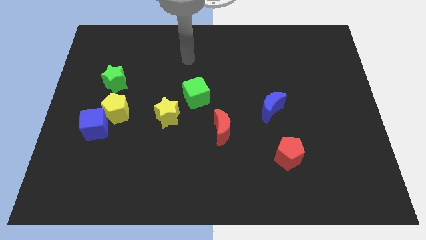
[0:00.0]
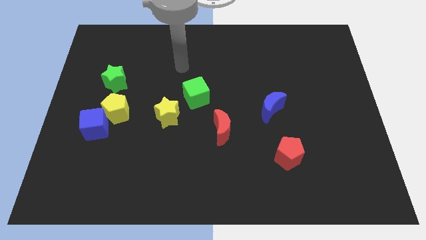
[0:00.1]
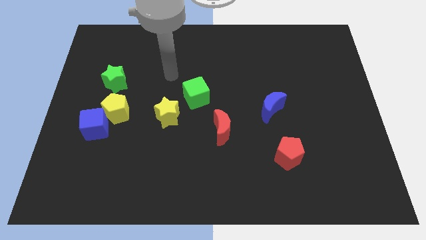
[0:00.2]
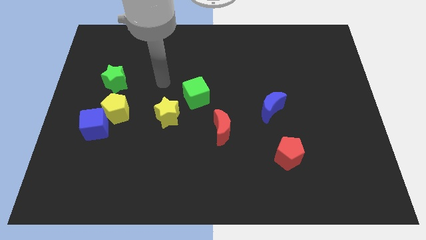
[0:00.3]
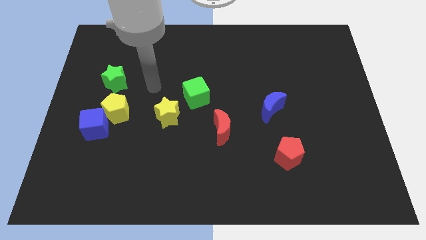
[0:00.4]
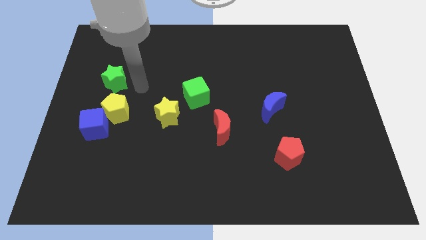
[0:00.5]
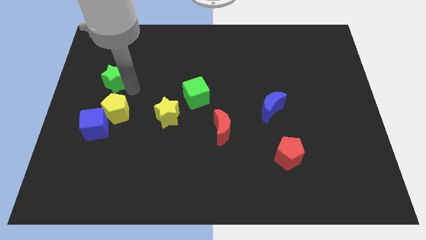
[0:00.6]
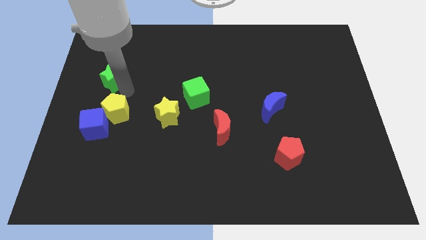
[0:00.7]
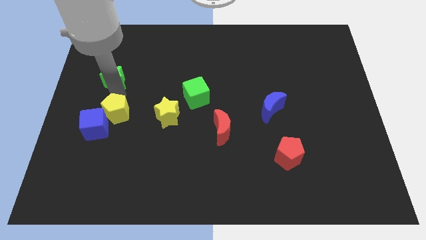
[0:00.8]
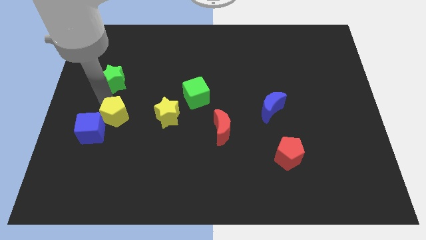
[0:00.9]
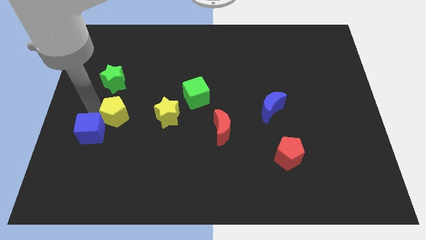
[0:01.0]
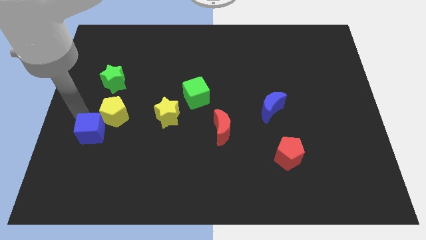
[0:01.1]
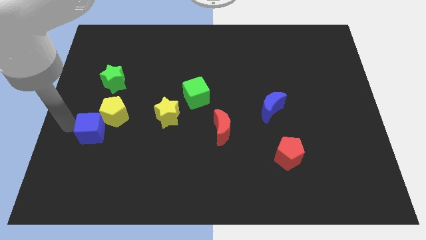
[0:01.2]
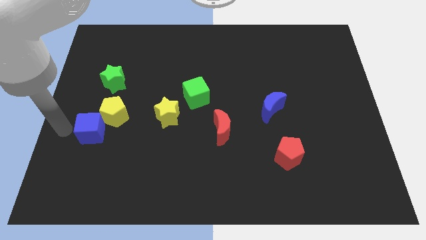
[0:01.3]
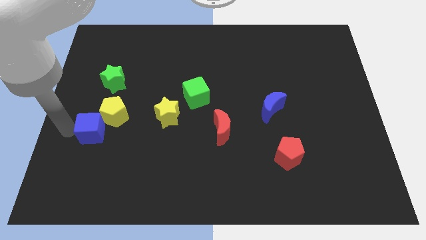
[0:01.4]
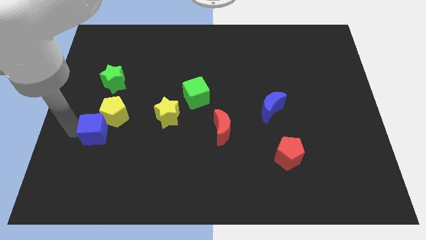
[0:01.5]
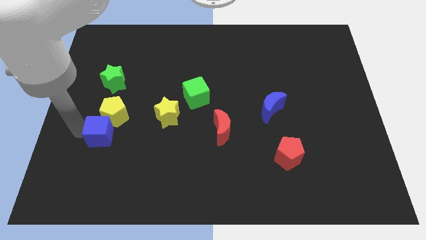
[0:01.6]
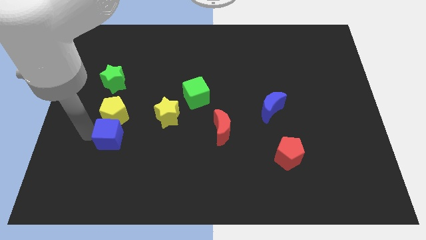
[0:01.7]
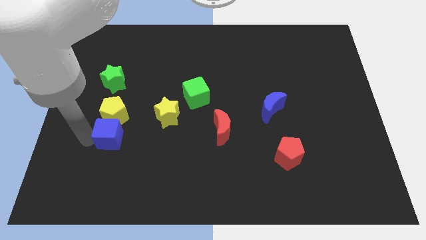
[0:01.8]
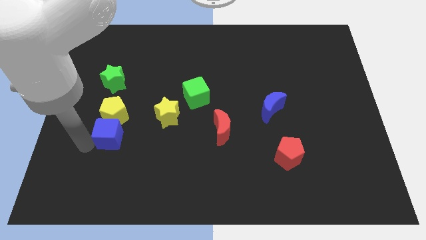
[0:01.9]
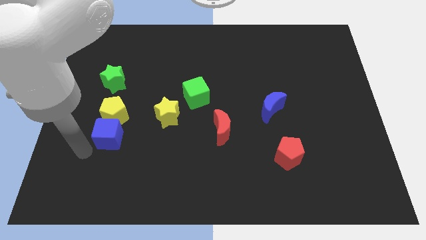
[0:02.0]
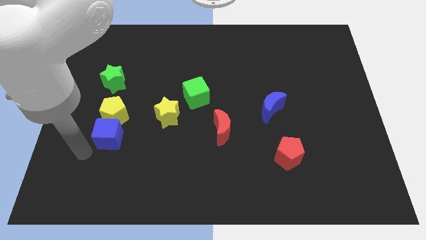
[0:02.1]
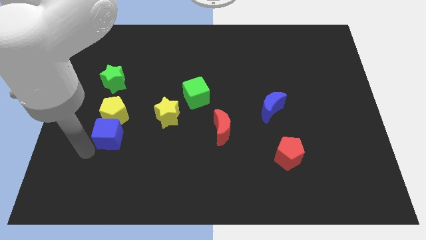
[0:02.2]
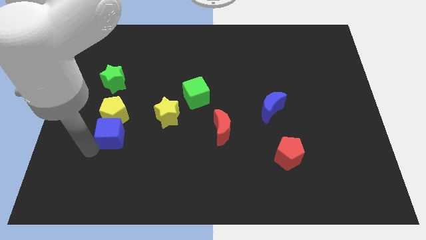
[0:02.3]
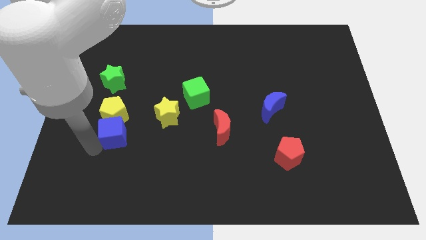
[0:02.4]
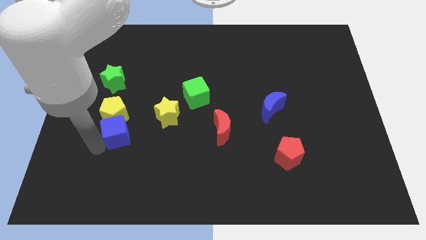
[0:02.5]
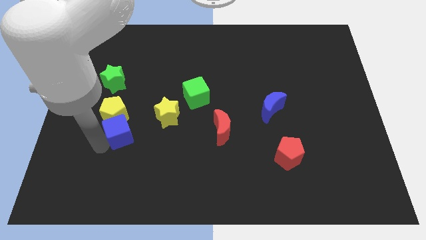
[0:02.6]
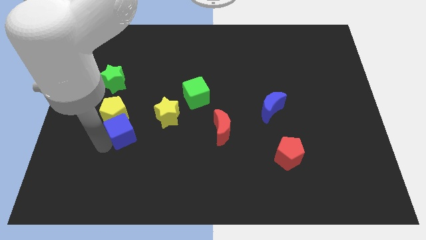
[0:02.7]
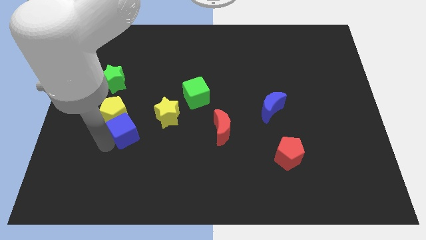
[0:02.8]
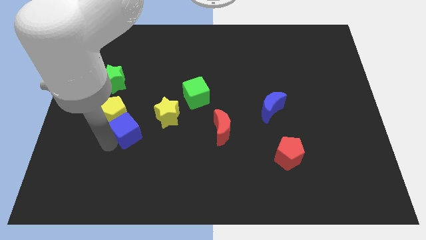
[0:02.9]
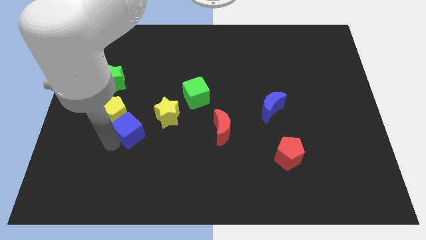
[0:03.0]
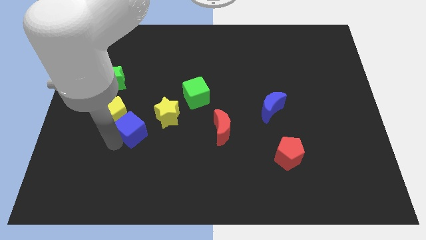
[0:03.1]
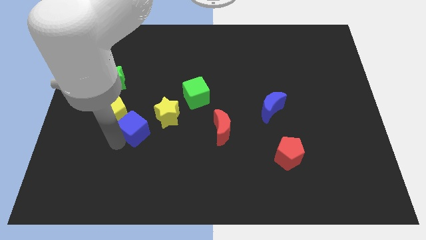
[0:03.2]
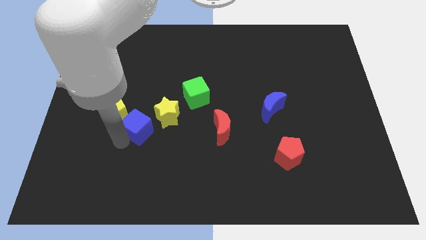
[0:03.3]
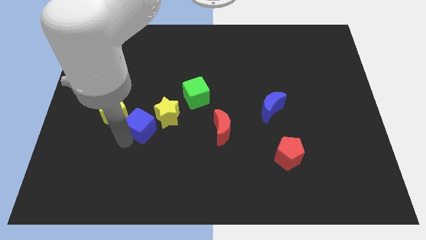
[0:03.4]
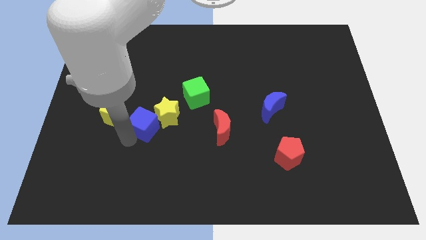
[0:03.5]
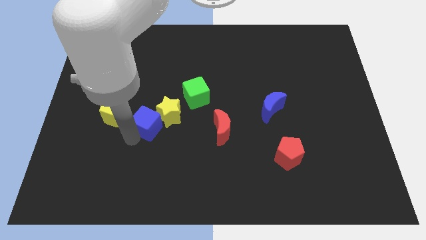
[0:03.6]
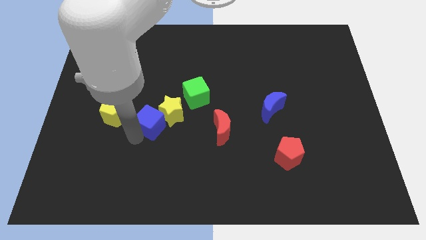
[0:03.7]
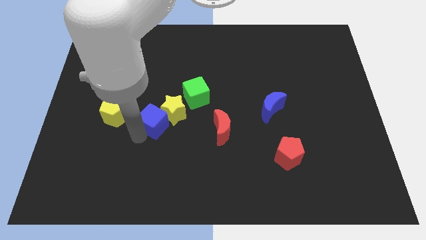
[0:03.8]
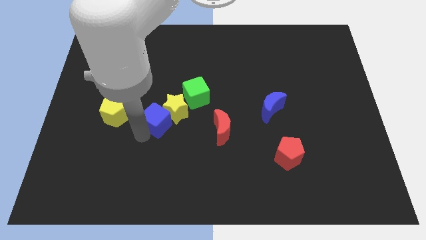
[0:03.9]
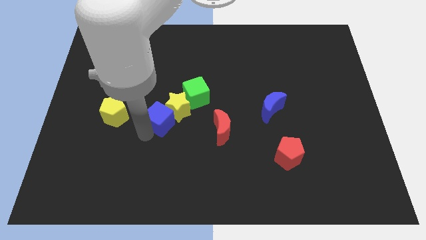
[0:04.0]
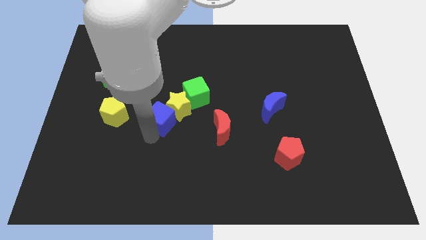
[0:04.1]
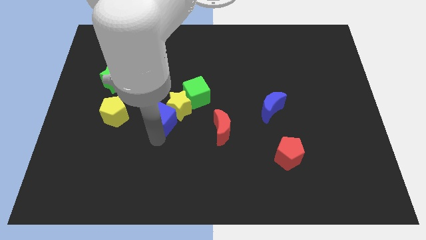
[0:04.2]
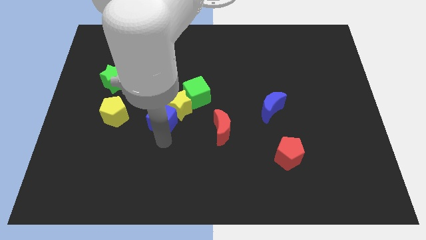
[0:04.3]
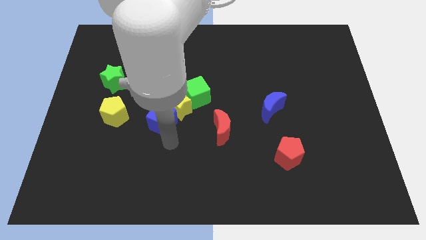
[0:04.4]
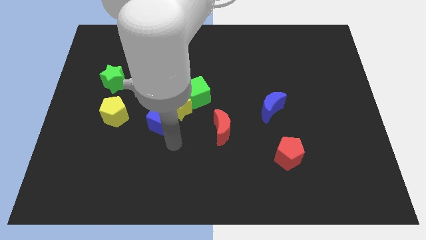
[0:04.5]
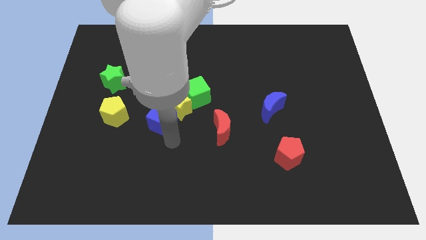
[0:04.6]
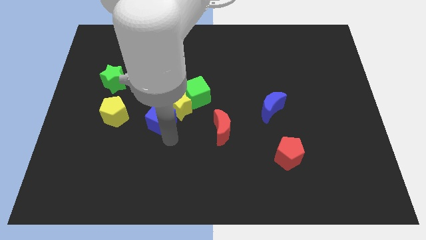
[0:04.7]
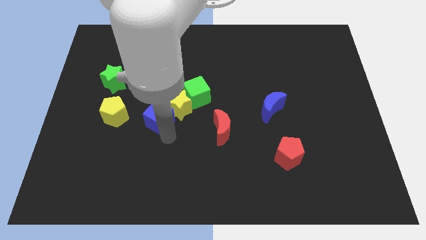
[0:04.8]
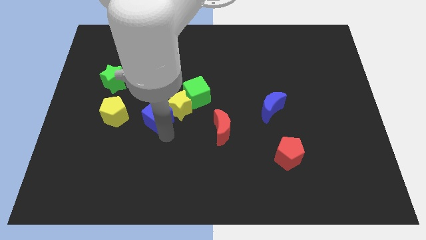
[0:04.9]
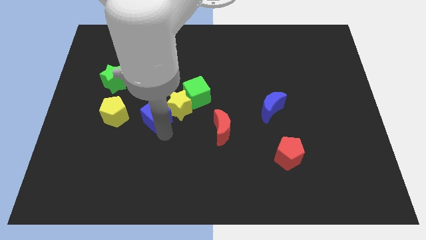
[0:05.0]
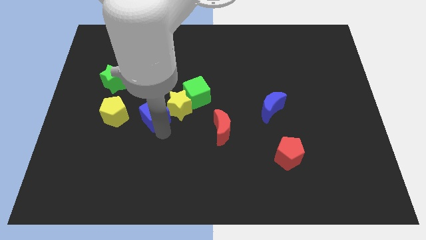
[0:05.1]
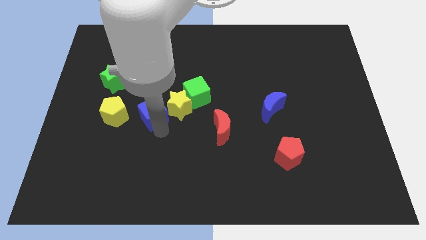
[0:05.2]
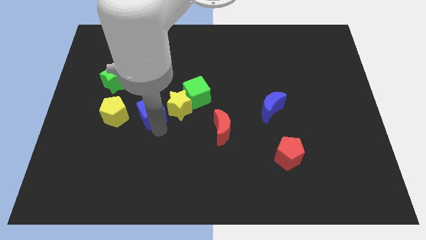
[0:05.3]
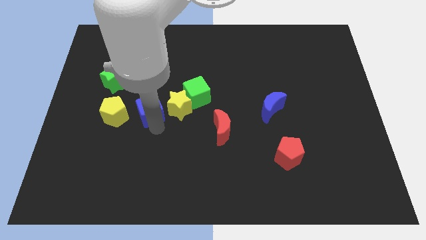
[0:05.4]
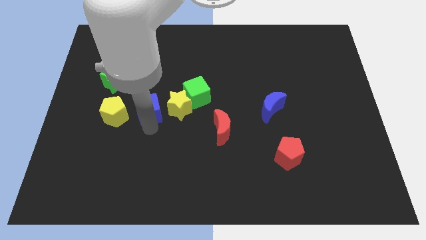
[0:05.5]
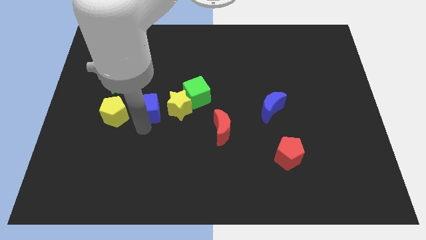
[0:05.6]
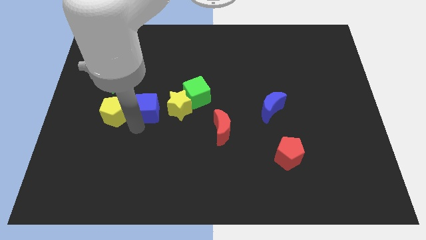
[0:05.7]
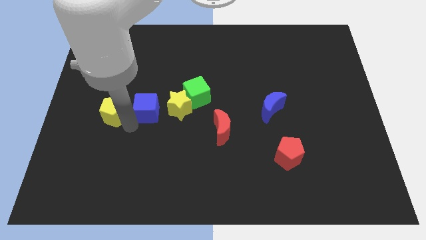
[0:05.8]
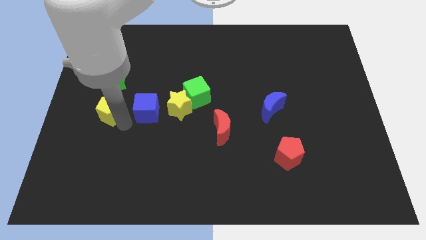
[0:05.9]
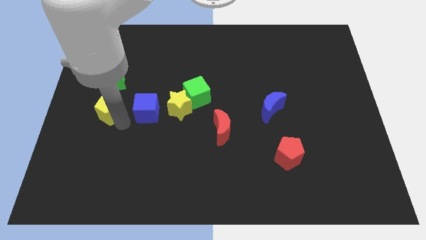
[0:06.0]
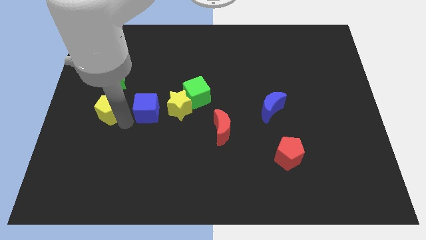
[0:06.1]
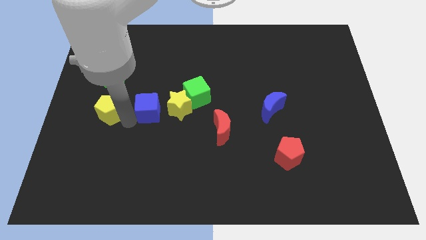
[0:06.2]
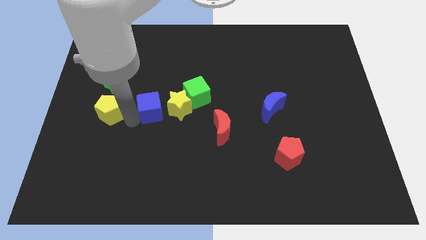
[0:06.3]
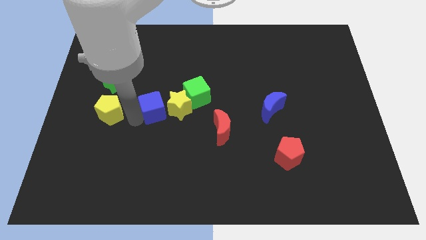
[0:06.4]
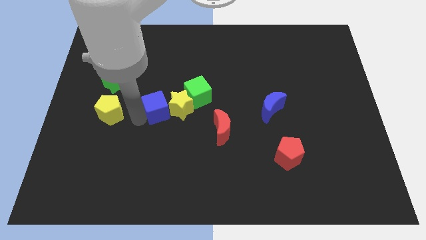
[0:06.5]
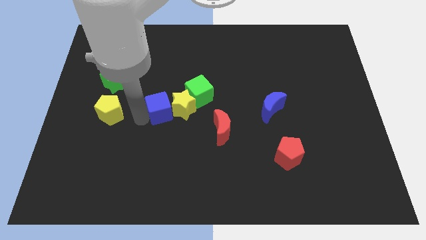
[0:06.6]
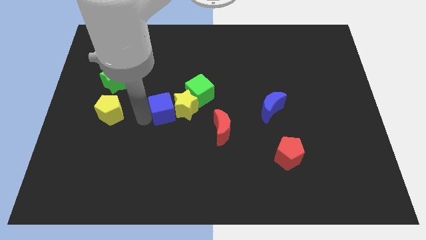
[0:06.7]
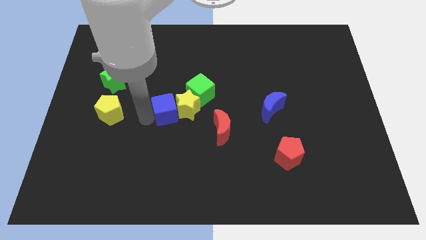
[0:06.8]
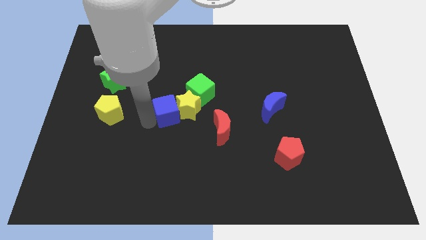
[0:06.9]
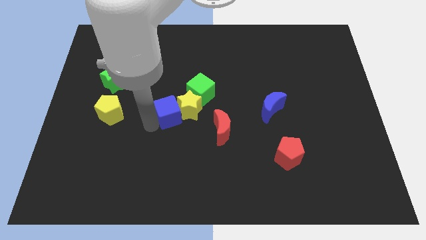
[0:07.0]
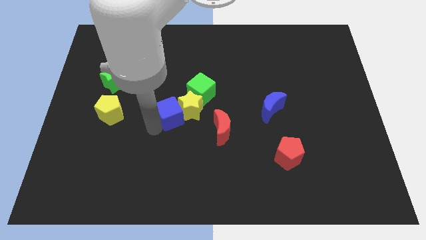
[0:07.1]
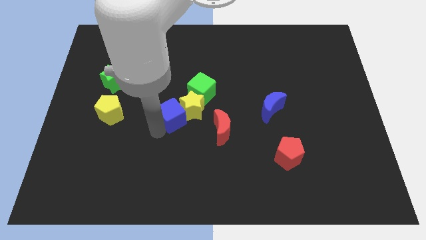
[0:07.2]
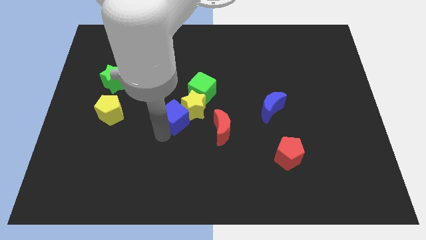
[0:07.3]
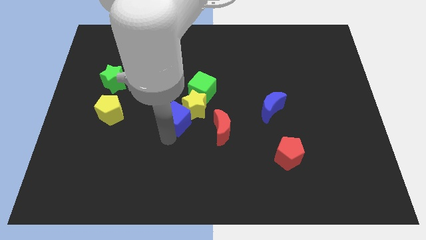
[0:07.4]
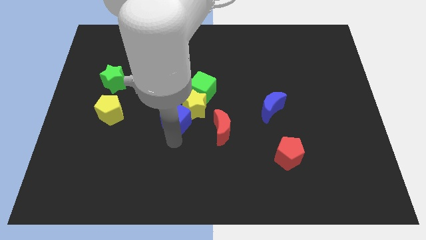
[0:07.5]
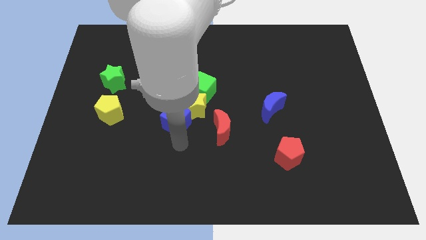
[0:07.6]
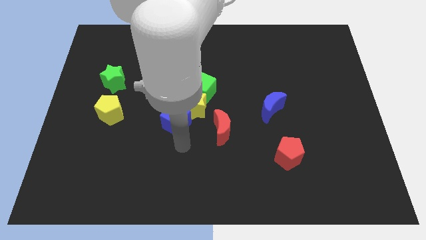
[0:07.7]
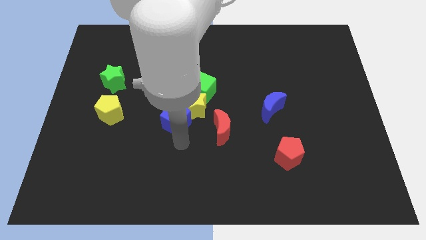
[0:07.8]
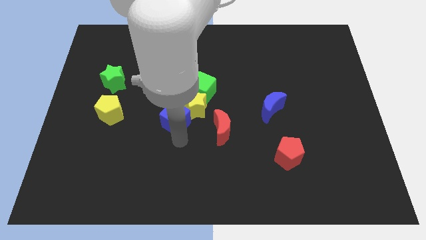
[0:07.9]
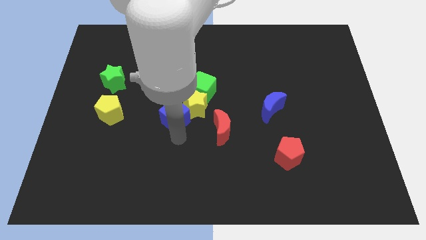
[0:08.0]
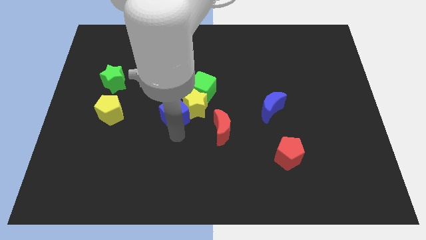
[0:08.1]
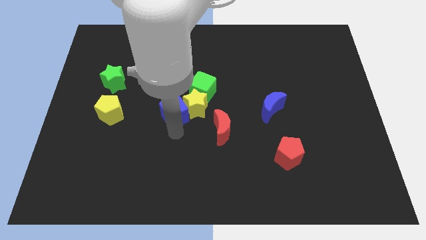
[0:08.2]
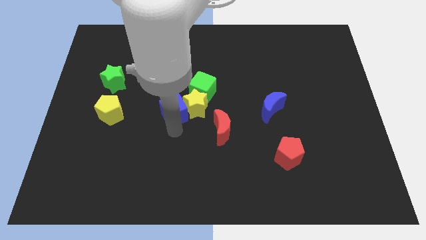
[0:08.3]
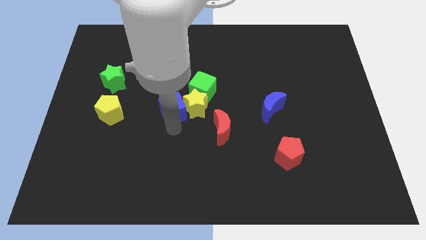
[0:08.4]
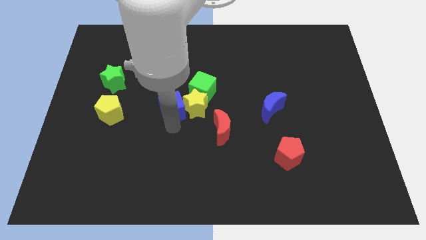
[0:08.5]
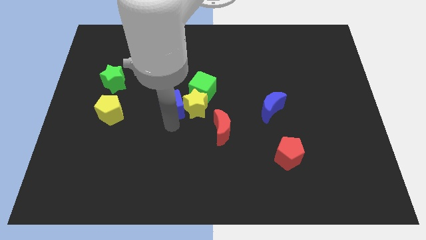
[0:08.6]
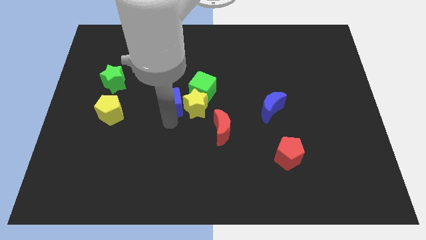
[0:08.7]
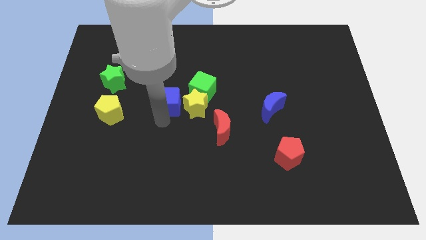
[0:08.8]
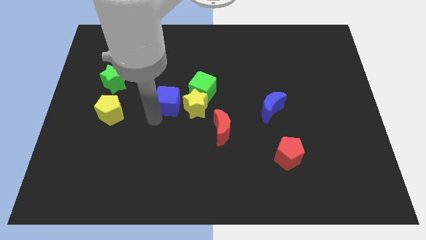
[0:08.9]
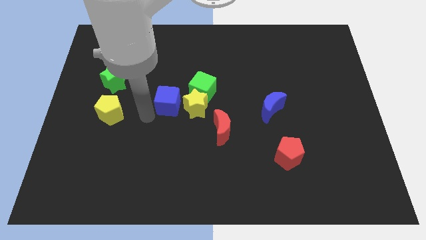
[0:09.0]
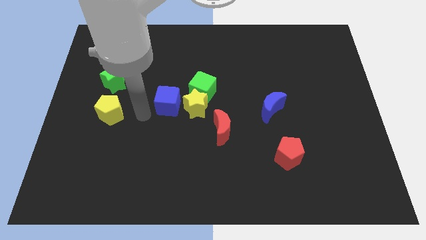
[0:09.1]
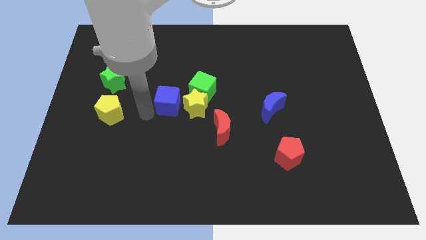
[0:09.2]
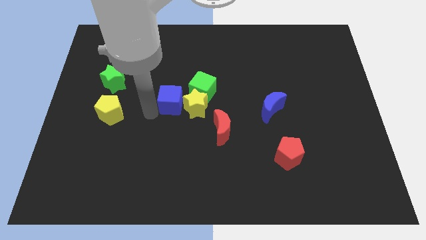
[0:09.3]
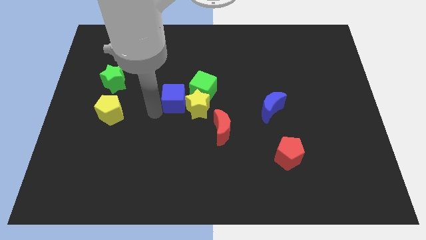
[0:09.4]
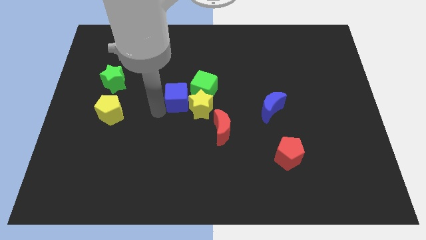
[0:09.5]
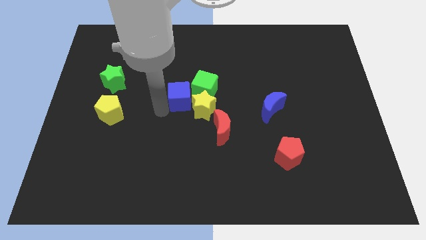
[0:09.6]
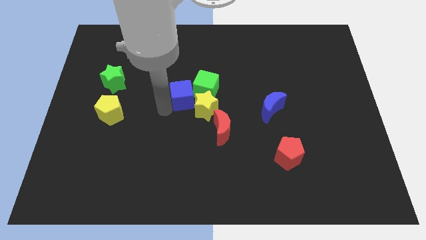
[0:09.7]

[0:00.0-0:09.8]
push the blue cube close to the green cube
